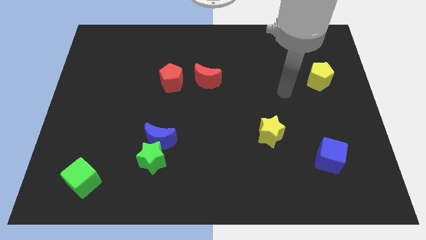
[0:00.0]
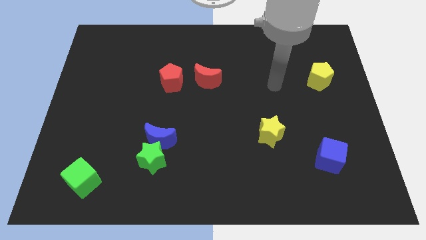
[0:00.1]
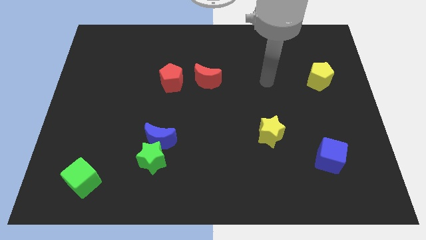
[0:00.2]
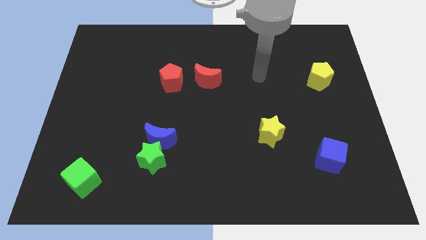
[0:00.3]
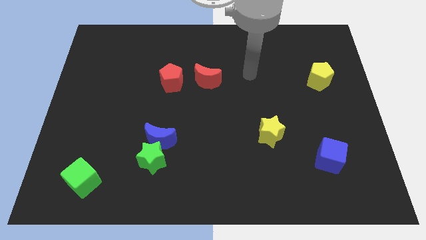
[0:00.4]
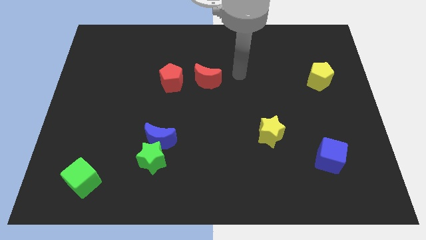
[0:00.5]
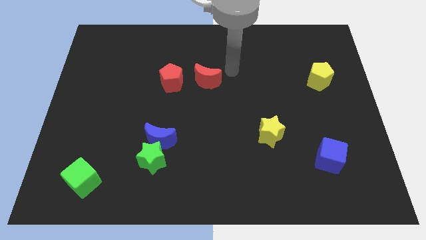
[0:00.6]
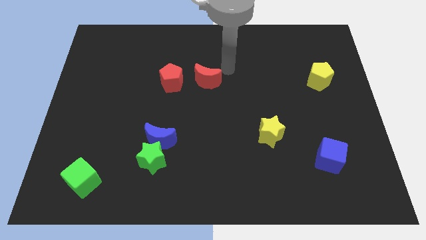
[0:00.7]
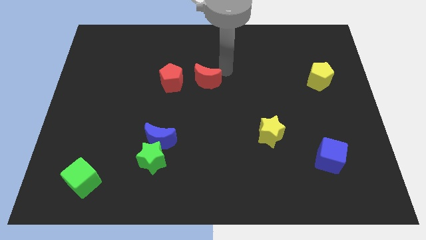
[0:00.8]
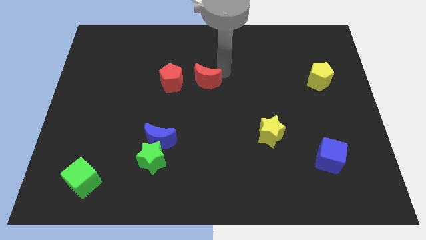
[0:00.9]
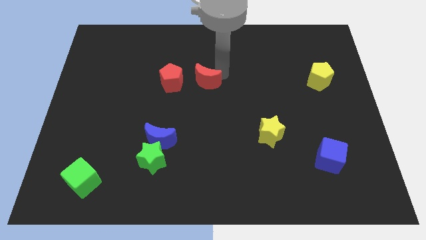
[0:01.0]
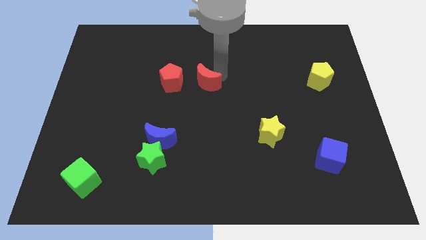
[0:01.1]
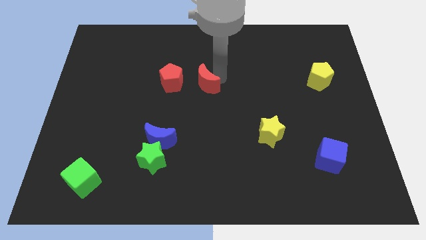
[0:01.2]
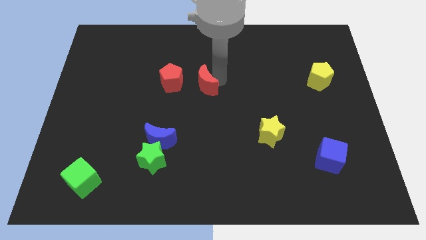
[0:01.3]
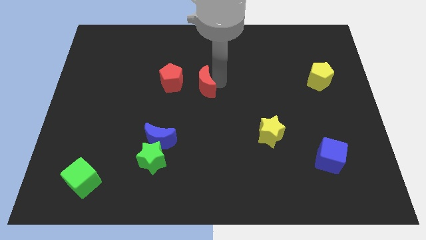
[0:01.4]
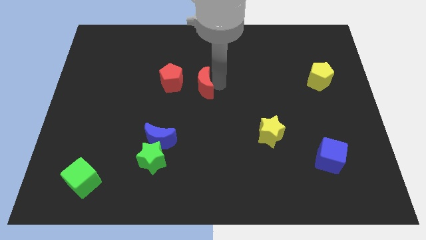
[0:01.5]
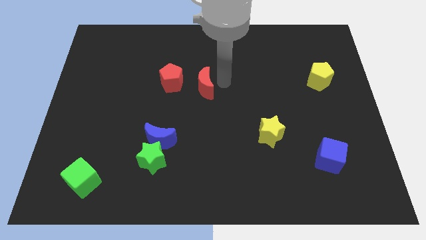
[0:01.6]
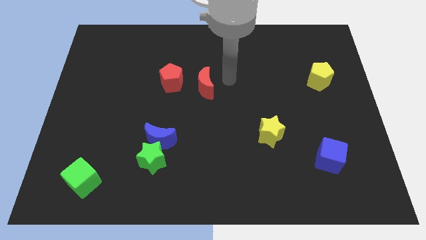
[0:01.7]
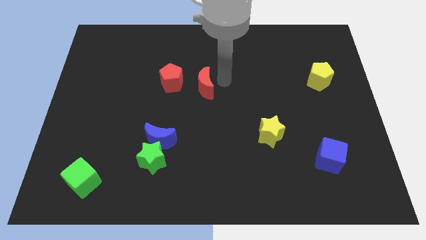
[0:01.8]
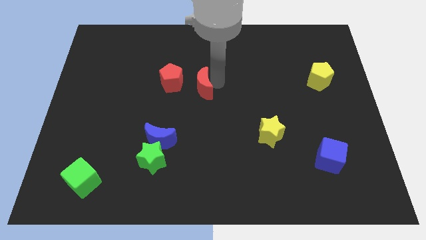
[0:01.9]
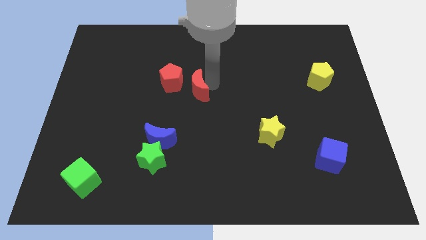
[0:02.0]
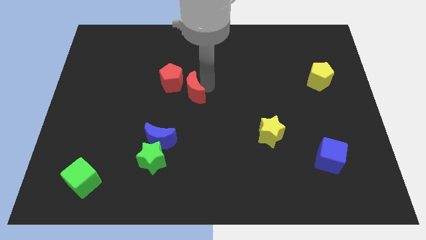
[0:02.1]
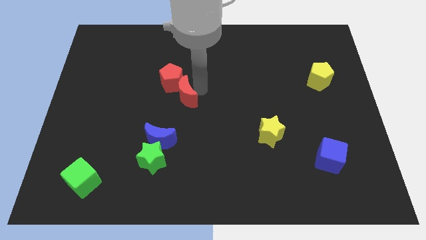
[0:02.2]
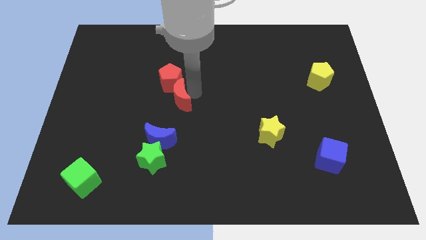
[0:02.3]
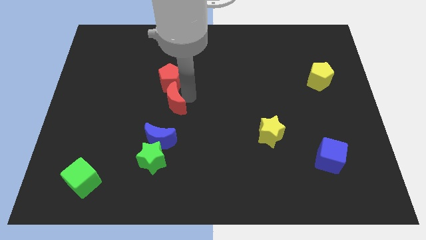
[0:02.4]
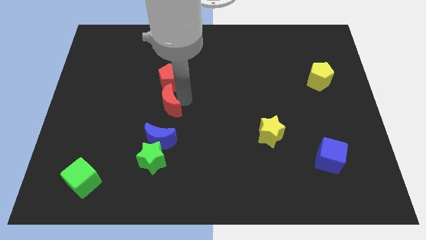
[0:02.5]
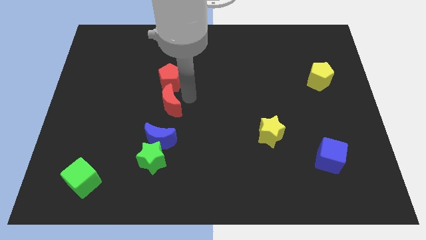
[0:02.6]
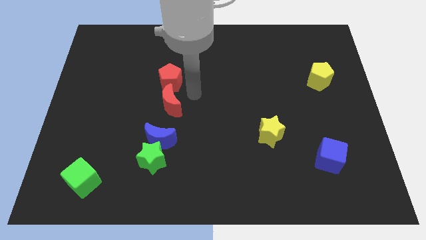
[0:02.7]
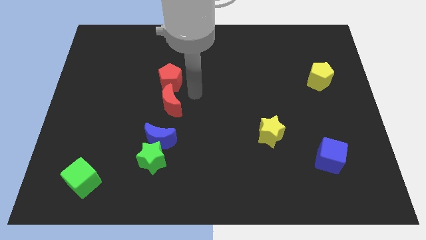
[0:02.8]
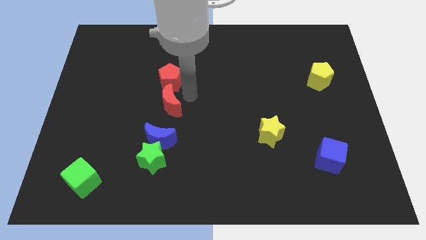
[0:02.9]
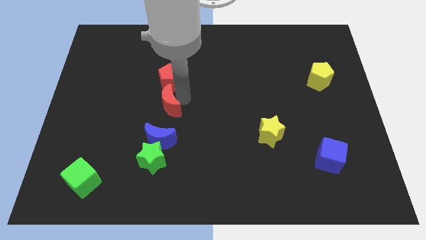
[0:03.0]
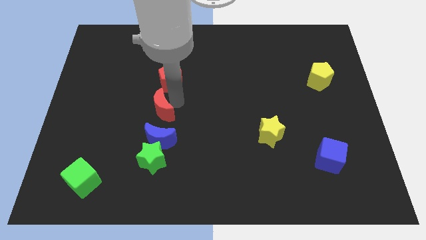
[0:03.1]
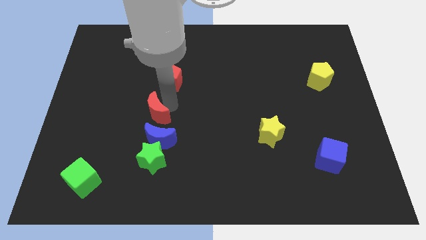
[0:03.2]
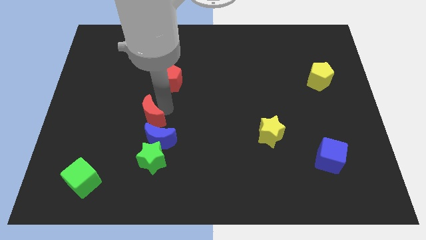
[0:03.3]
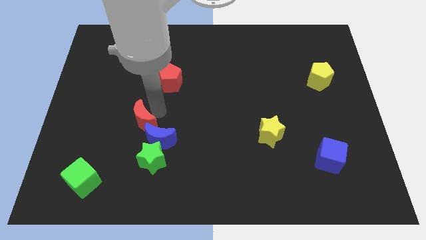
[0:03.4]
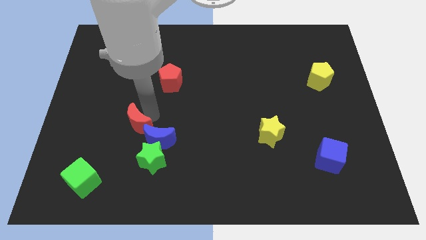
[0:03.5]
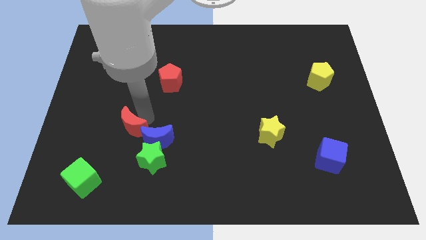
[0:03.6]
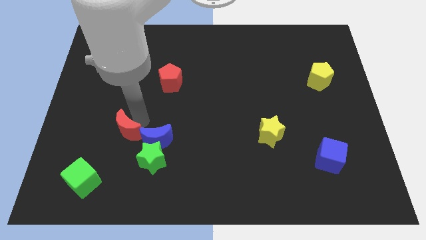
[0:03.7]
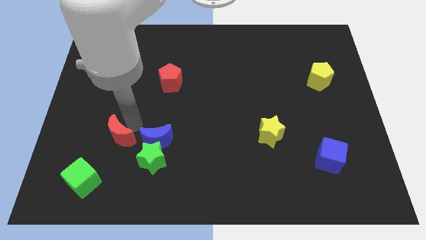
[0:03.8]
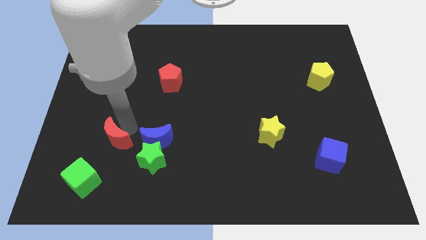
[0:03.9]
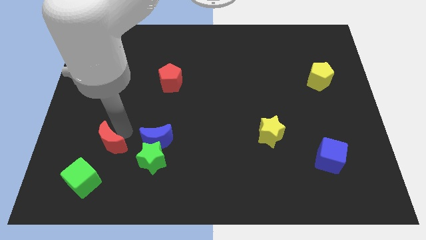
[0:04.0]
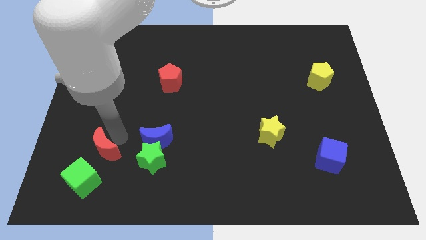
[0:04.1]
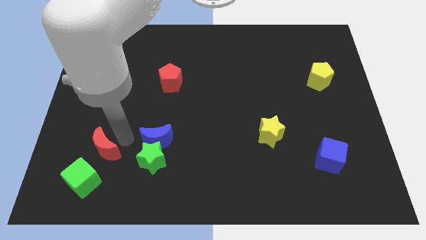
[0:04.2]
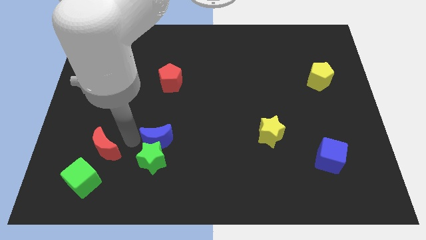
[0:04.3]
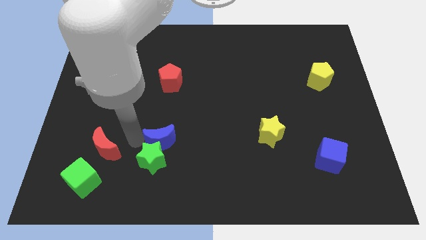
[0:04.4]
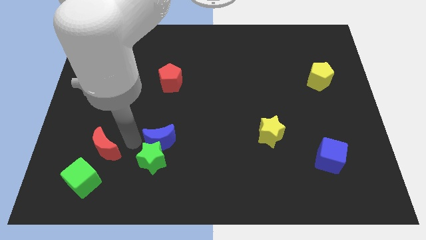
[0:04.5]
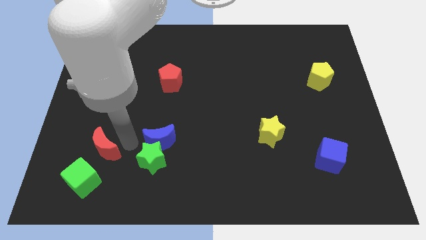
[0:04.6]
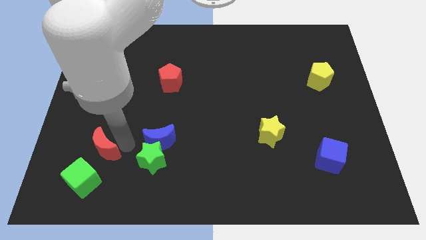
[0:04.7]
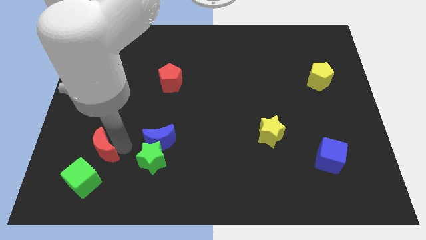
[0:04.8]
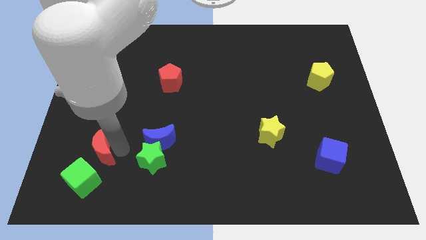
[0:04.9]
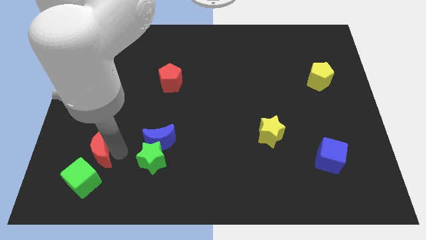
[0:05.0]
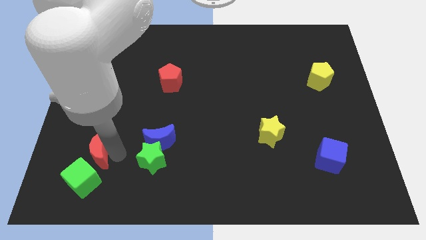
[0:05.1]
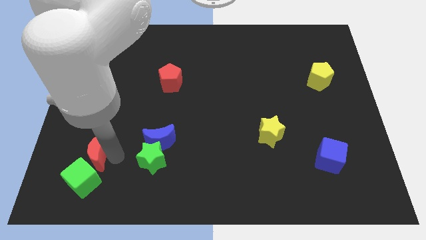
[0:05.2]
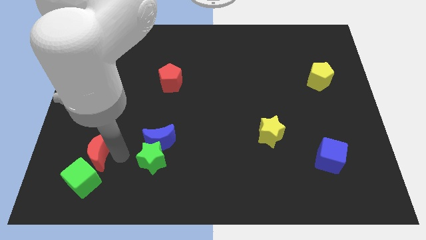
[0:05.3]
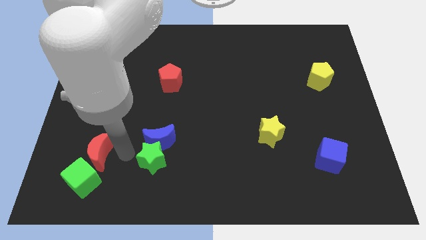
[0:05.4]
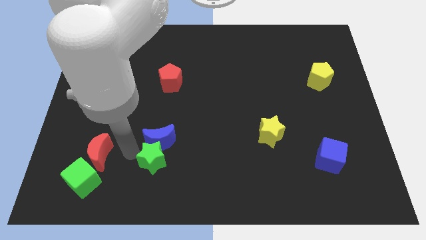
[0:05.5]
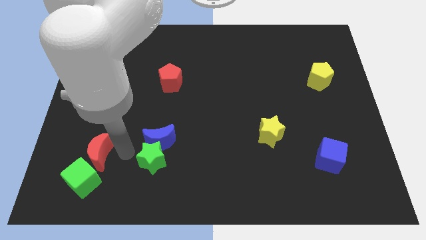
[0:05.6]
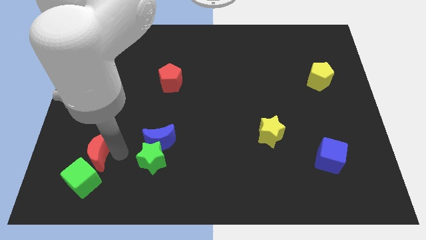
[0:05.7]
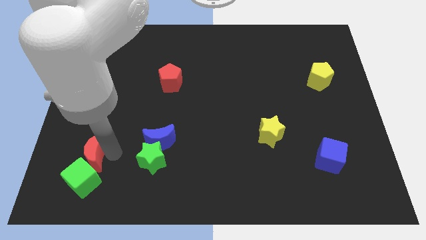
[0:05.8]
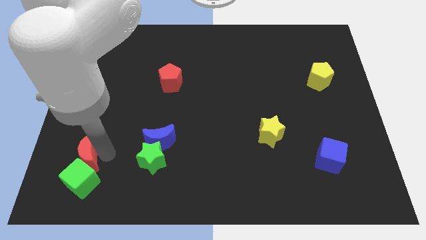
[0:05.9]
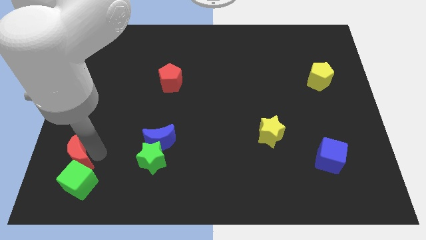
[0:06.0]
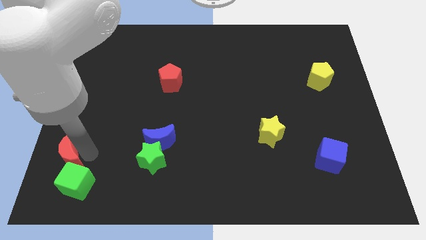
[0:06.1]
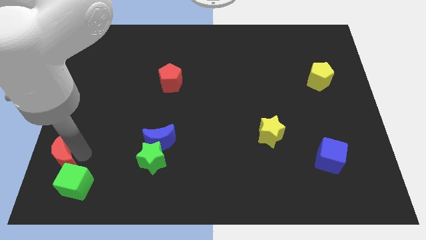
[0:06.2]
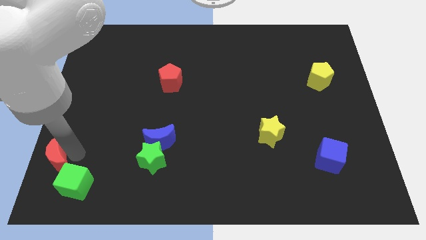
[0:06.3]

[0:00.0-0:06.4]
push the red moon to the lower left corner
